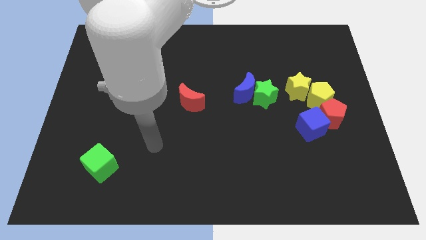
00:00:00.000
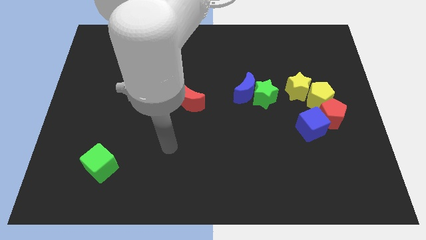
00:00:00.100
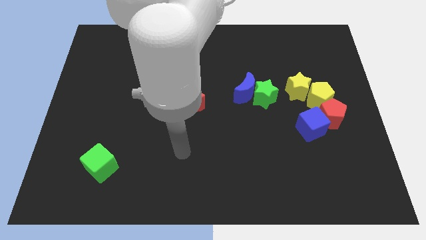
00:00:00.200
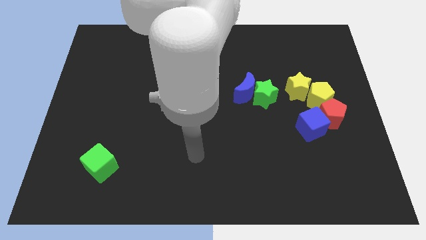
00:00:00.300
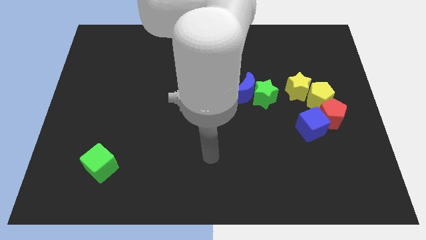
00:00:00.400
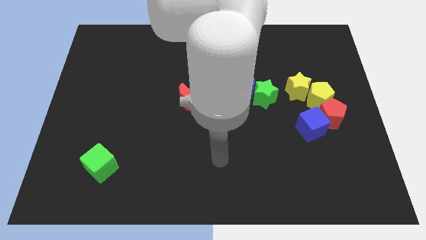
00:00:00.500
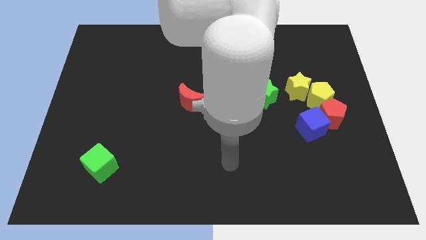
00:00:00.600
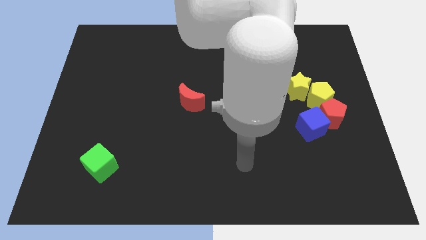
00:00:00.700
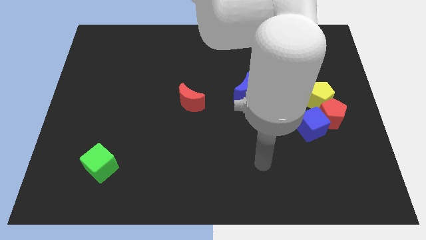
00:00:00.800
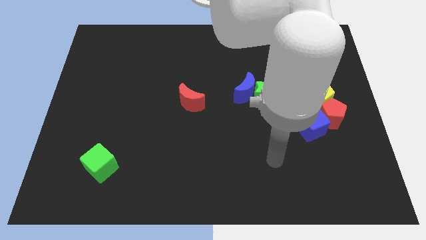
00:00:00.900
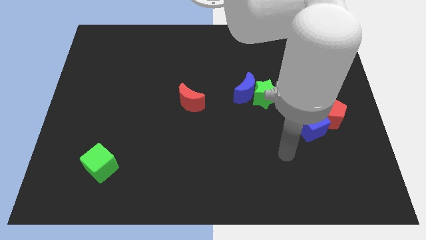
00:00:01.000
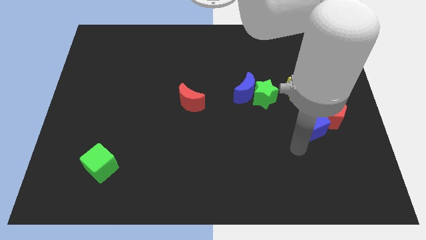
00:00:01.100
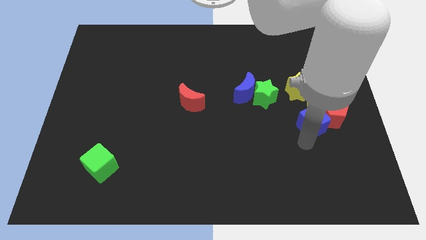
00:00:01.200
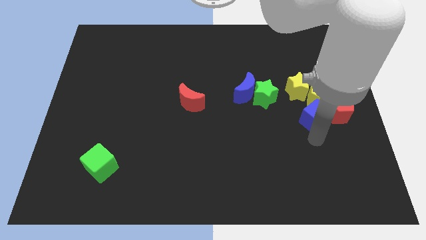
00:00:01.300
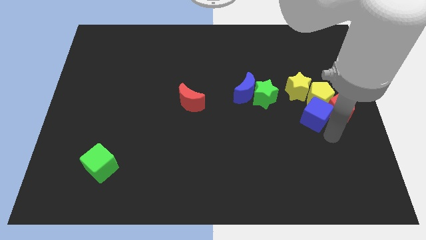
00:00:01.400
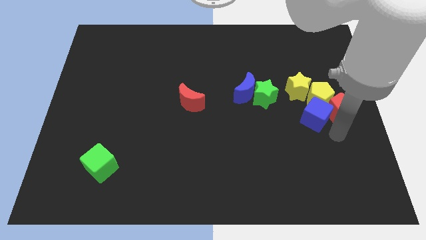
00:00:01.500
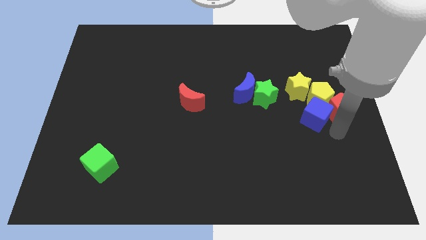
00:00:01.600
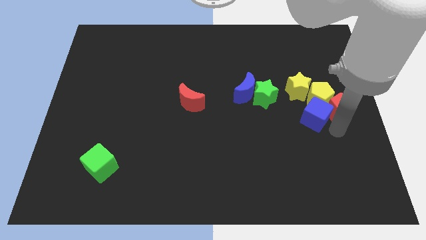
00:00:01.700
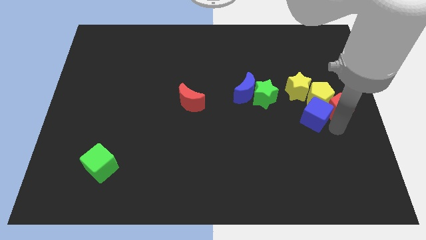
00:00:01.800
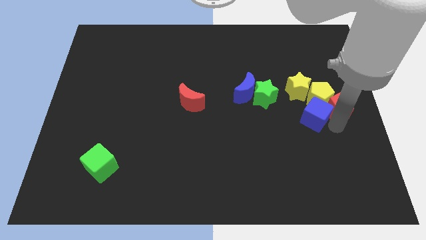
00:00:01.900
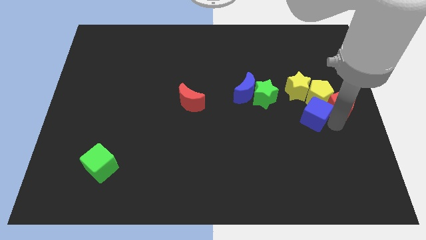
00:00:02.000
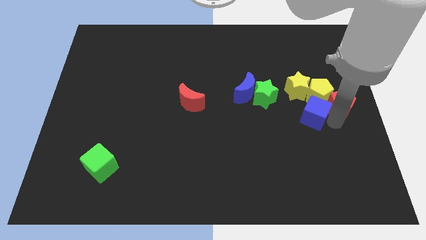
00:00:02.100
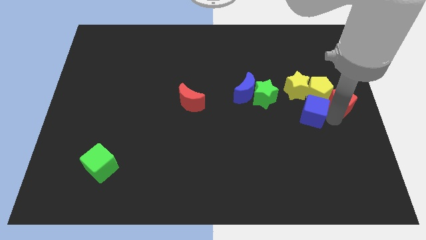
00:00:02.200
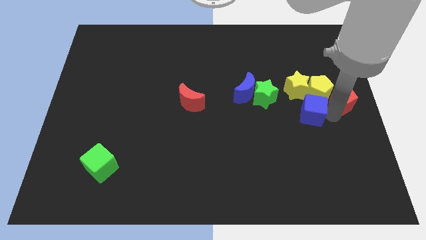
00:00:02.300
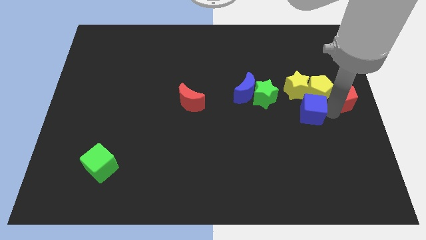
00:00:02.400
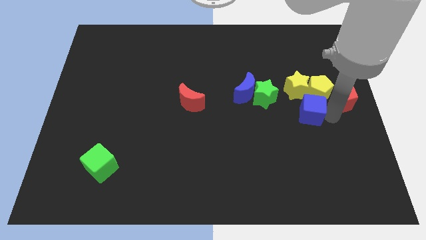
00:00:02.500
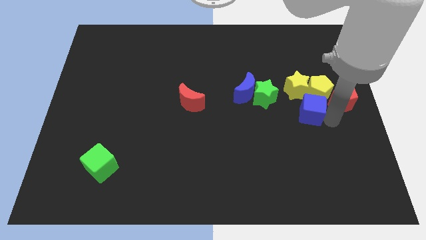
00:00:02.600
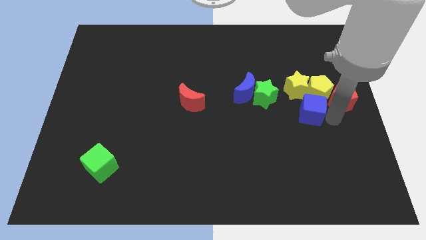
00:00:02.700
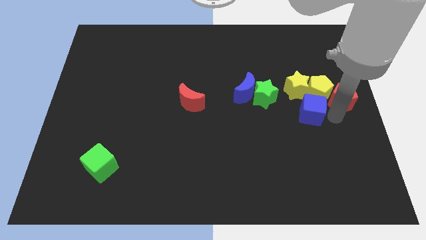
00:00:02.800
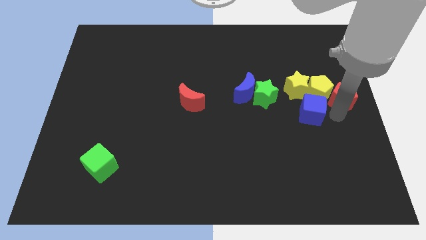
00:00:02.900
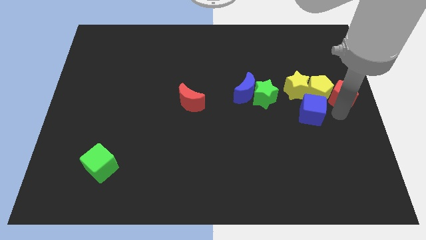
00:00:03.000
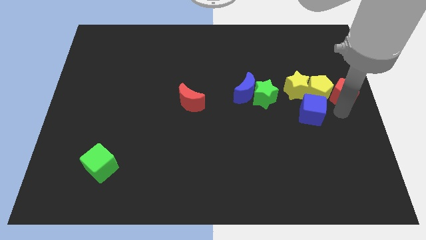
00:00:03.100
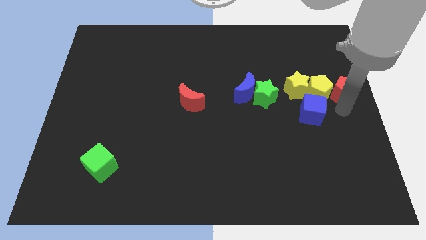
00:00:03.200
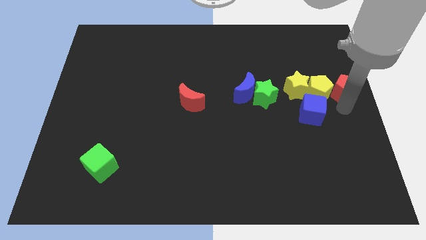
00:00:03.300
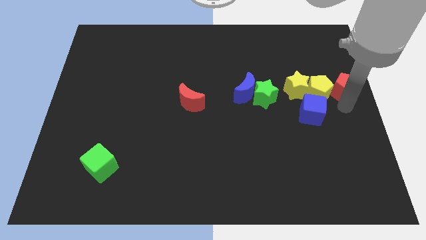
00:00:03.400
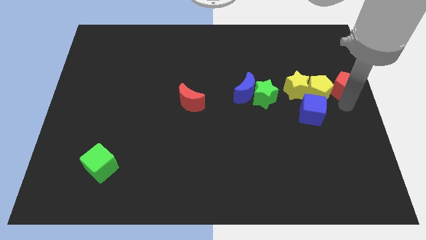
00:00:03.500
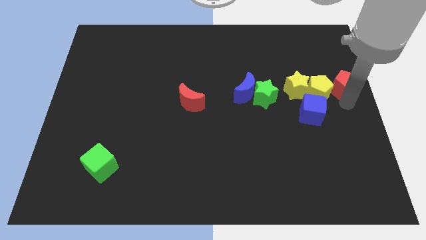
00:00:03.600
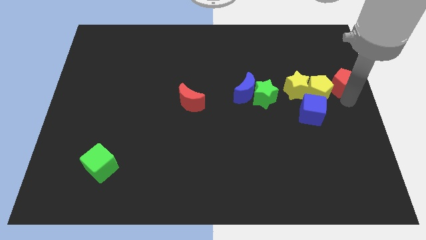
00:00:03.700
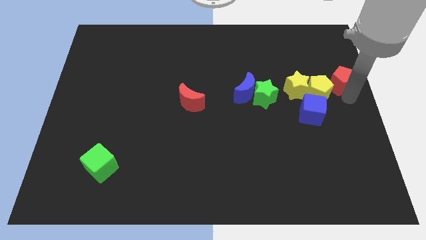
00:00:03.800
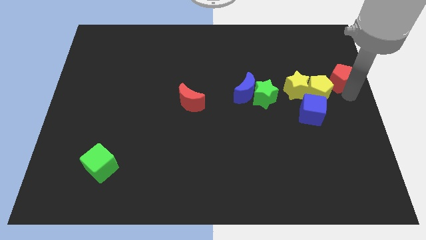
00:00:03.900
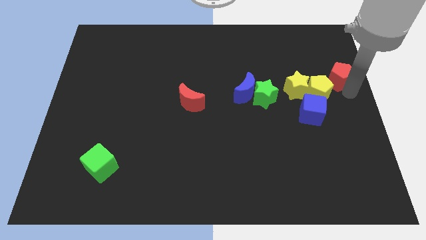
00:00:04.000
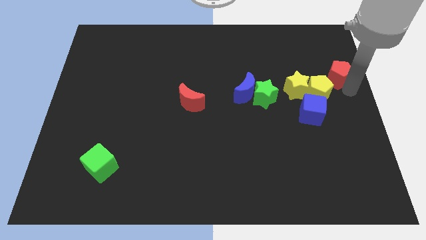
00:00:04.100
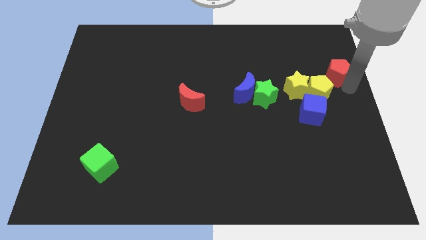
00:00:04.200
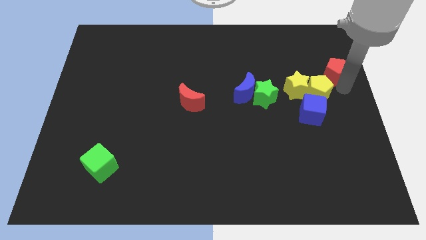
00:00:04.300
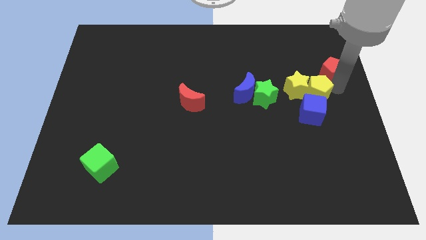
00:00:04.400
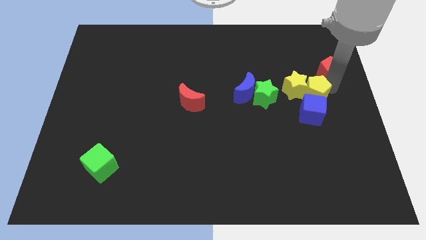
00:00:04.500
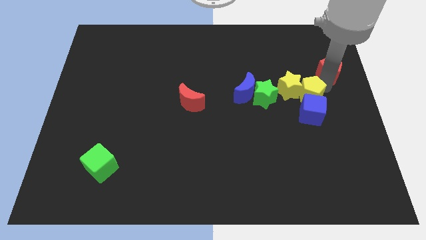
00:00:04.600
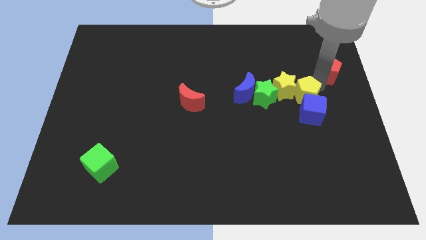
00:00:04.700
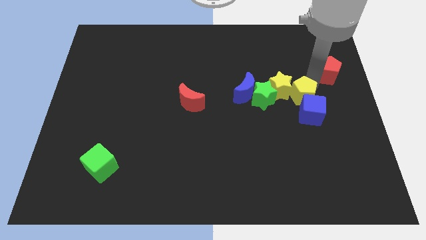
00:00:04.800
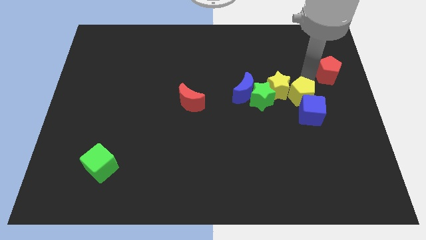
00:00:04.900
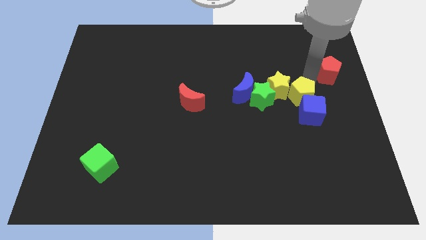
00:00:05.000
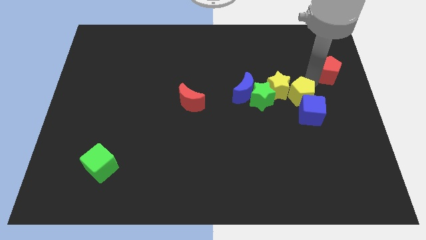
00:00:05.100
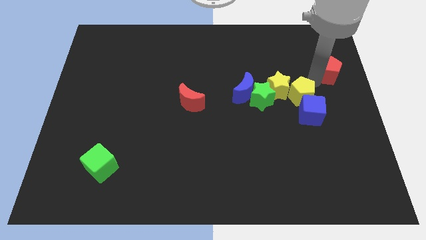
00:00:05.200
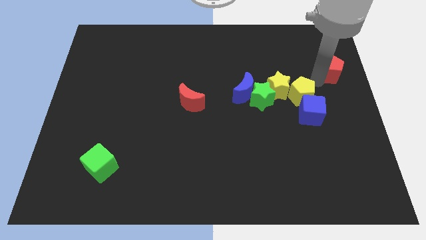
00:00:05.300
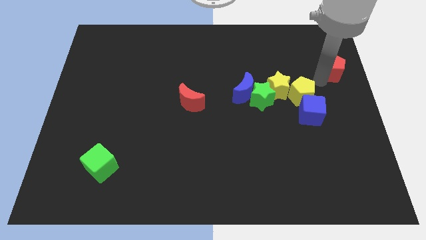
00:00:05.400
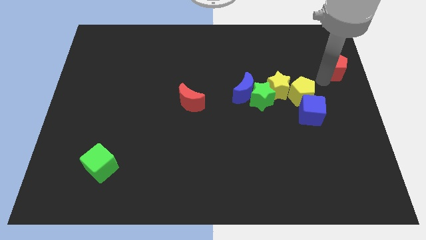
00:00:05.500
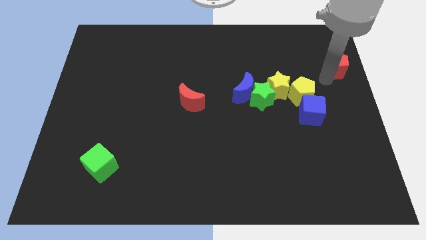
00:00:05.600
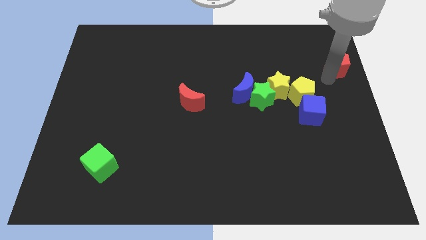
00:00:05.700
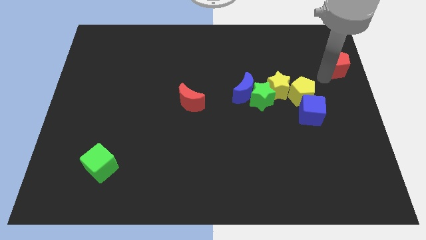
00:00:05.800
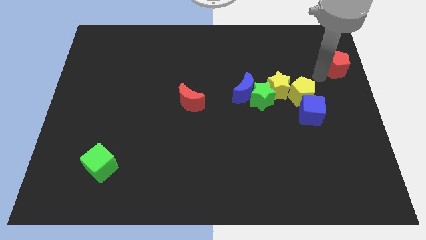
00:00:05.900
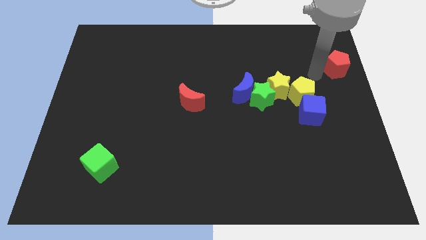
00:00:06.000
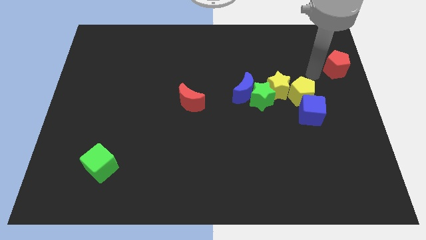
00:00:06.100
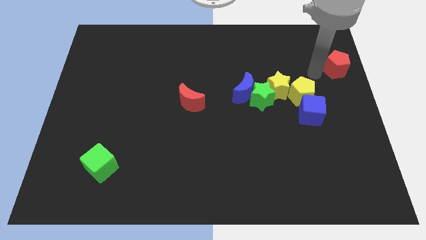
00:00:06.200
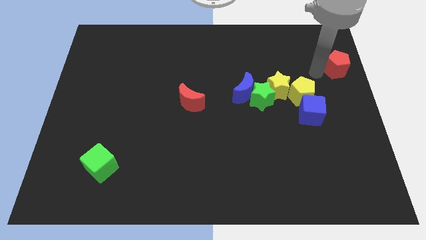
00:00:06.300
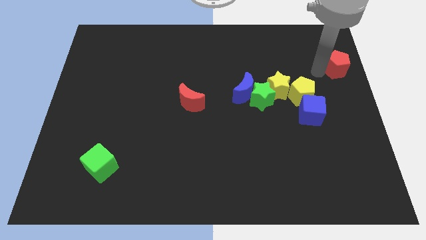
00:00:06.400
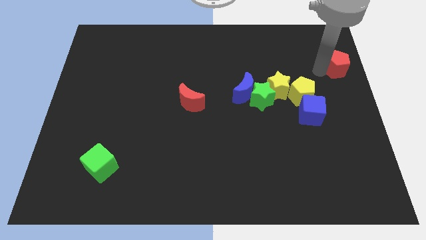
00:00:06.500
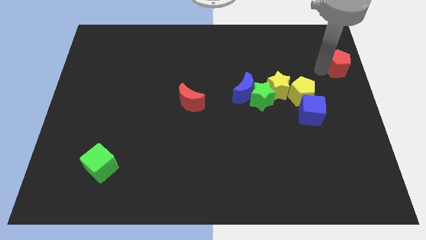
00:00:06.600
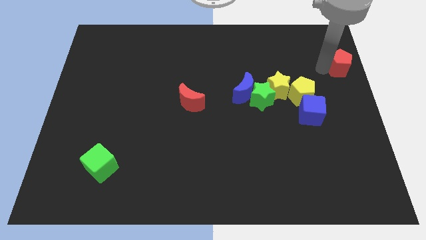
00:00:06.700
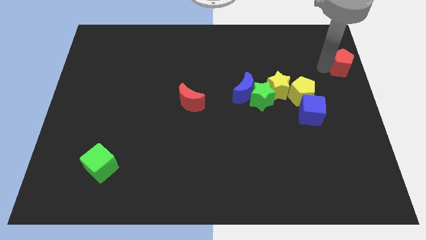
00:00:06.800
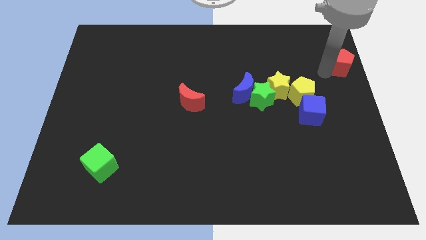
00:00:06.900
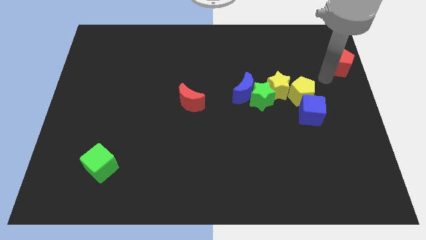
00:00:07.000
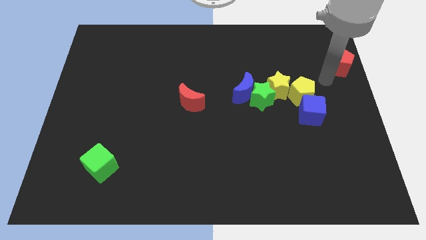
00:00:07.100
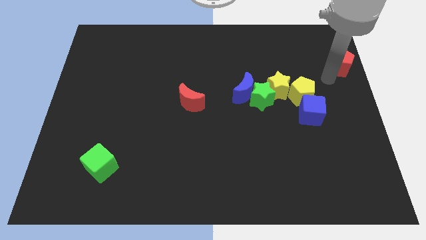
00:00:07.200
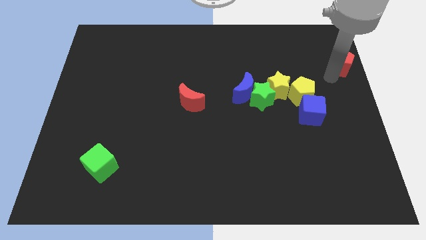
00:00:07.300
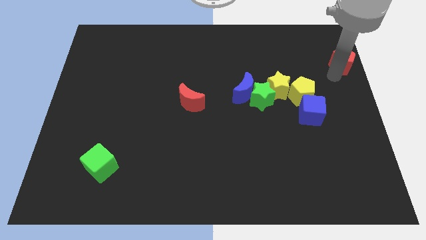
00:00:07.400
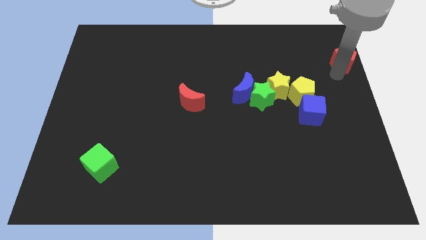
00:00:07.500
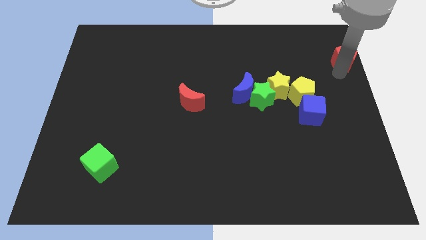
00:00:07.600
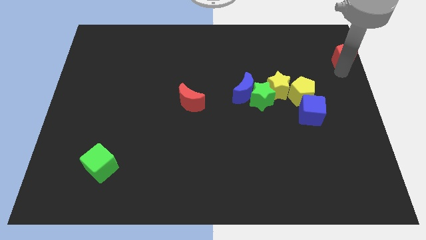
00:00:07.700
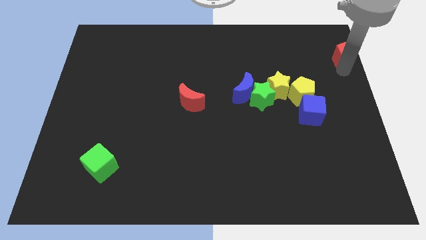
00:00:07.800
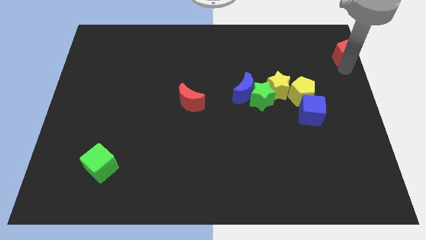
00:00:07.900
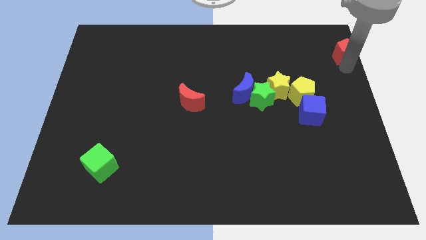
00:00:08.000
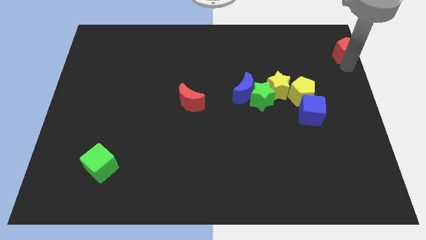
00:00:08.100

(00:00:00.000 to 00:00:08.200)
push the red pentagon to the upper right corner
